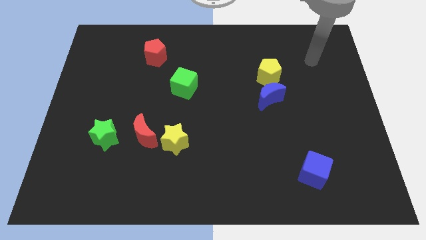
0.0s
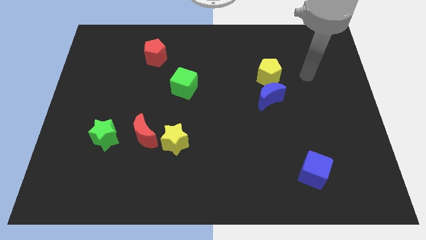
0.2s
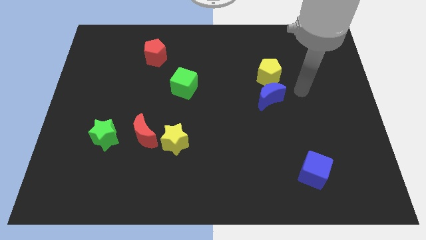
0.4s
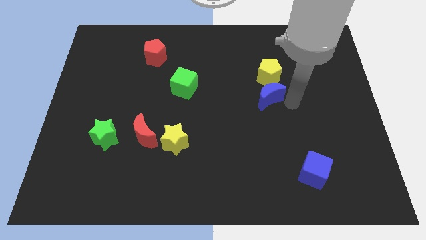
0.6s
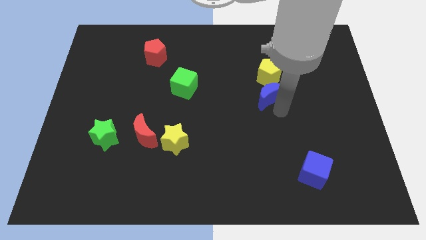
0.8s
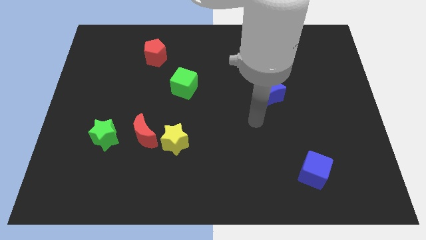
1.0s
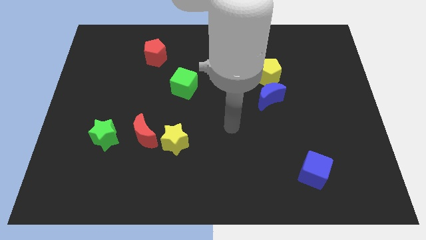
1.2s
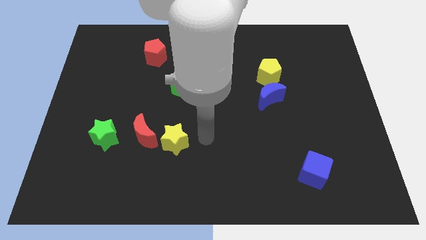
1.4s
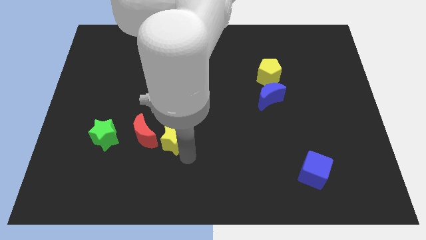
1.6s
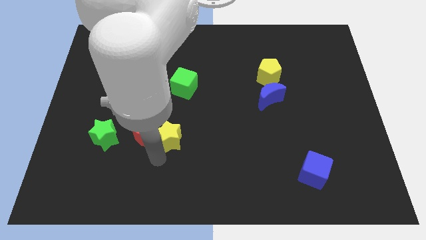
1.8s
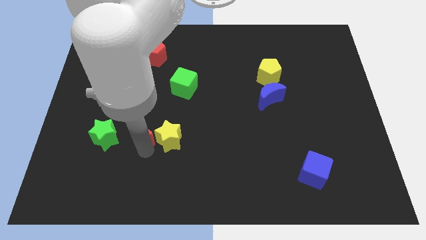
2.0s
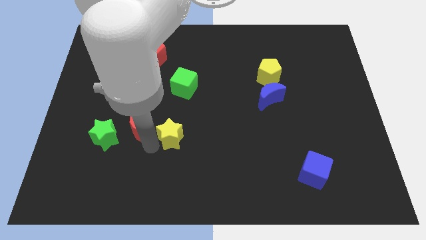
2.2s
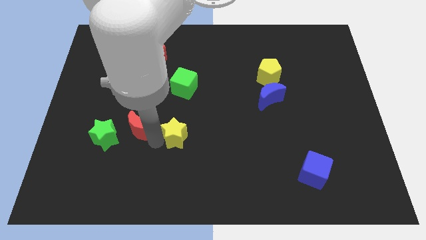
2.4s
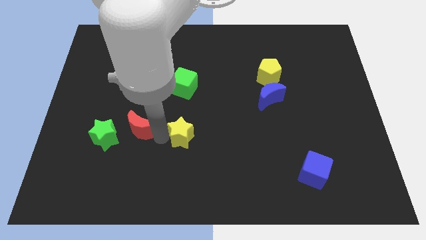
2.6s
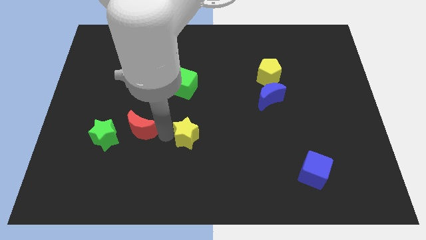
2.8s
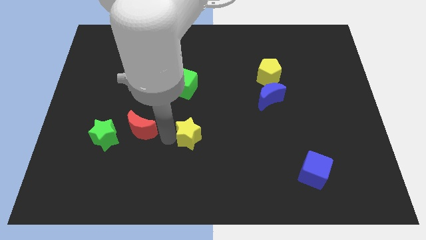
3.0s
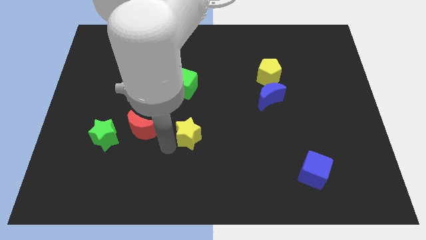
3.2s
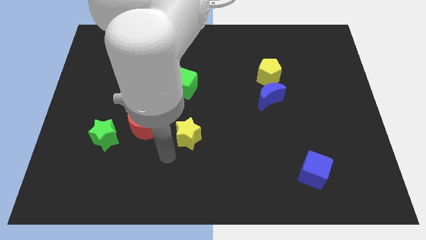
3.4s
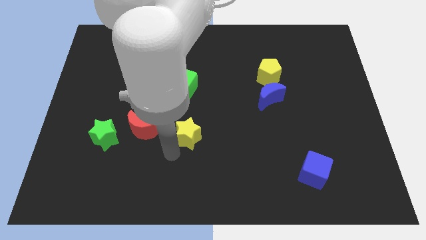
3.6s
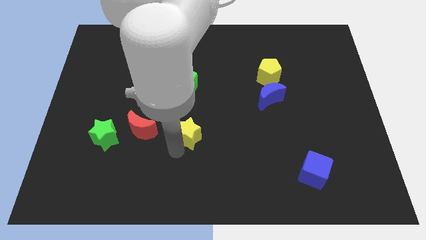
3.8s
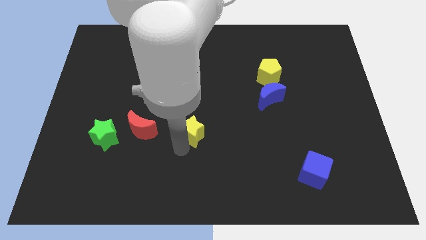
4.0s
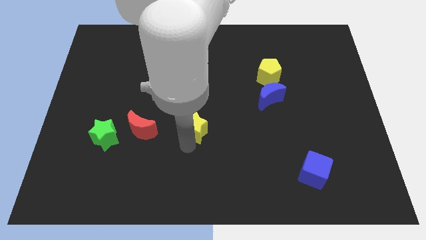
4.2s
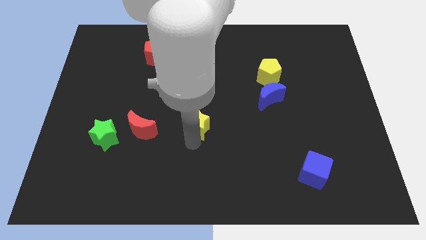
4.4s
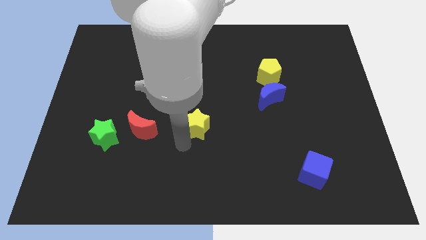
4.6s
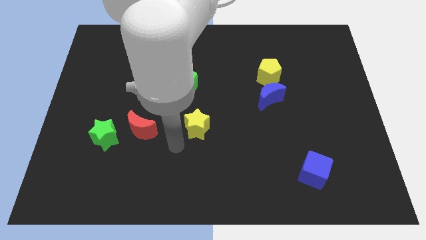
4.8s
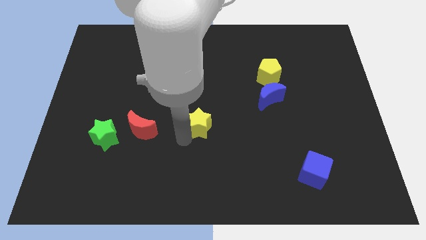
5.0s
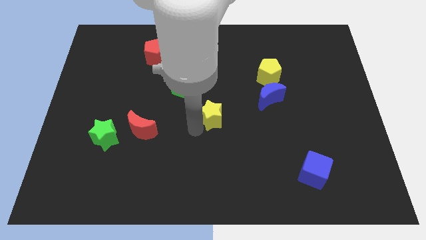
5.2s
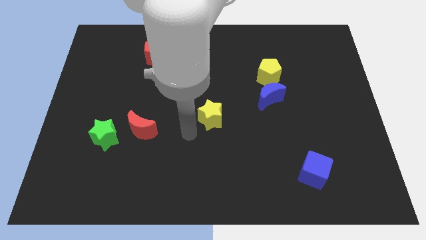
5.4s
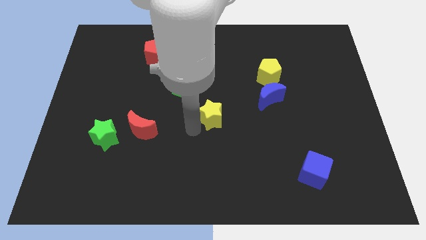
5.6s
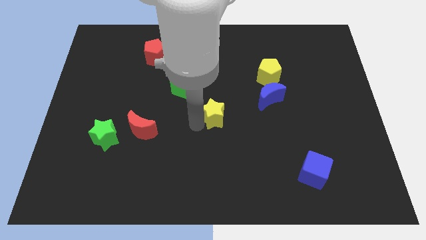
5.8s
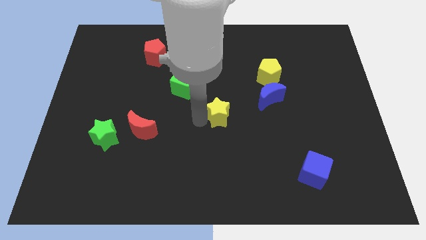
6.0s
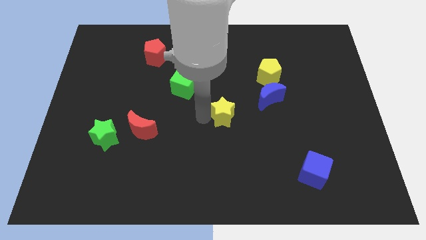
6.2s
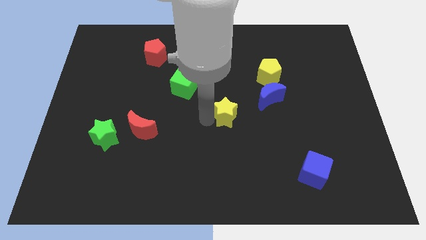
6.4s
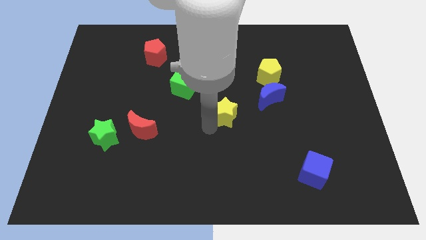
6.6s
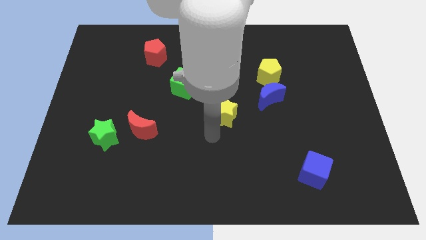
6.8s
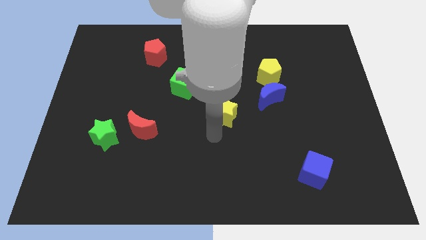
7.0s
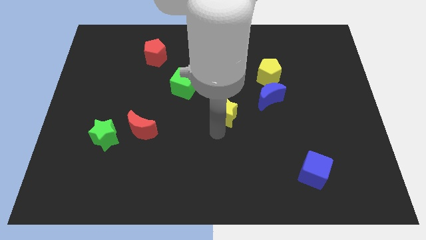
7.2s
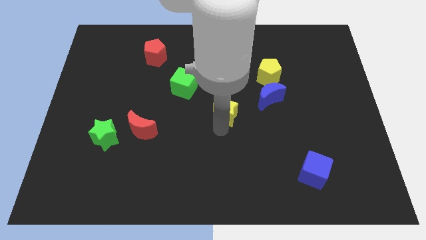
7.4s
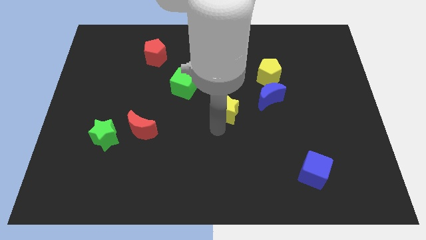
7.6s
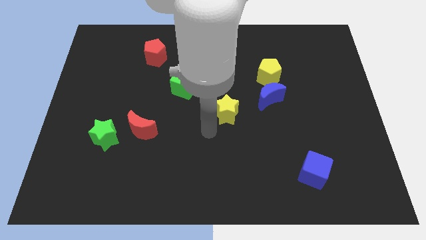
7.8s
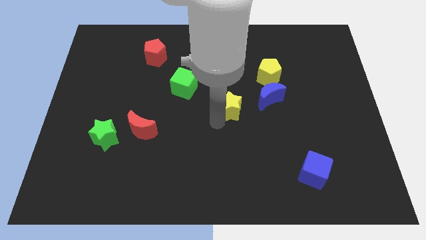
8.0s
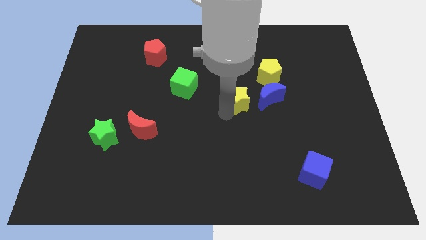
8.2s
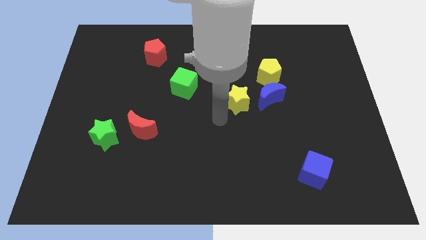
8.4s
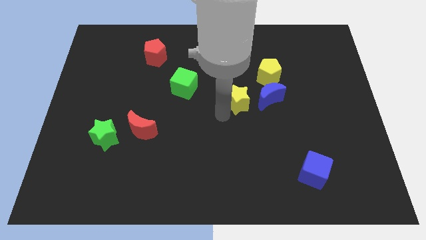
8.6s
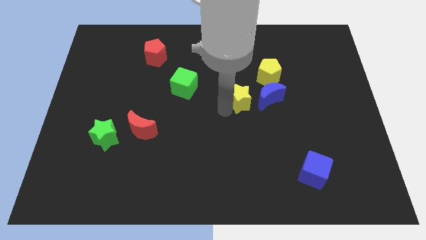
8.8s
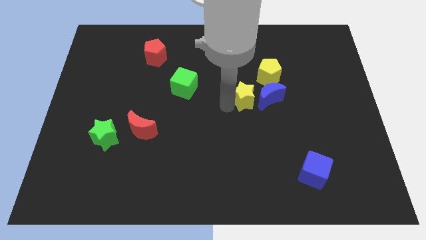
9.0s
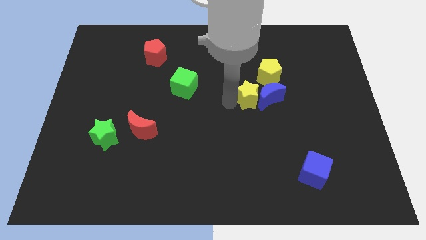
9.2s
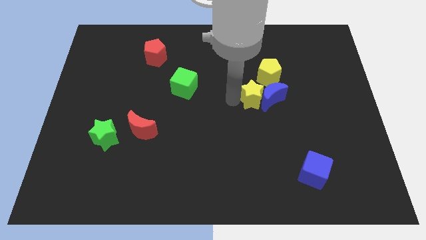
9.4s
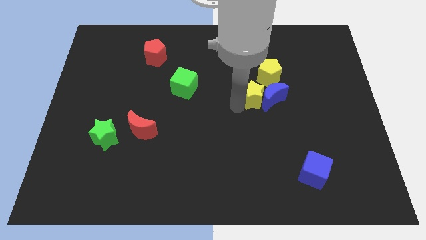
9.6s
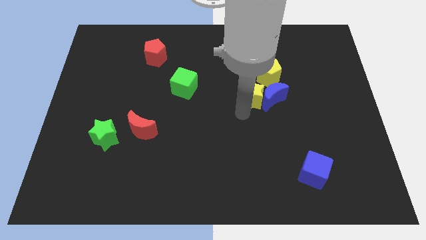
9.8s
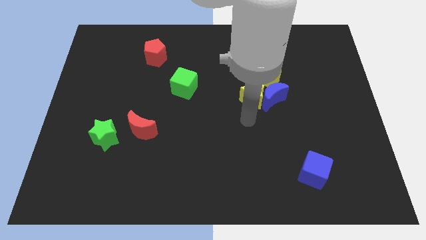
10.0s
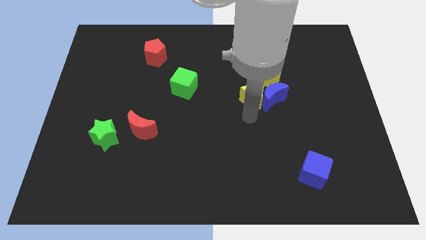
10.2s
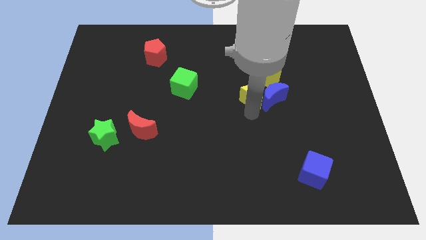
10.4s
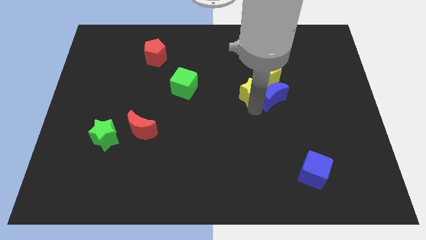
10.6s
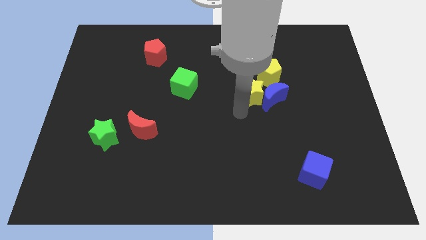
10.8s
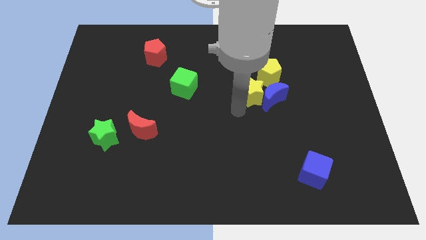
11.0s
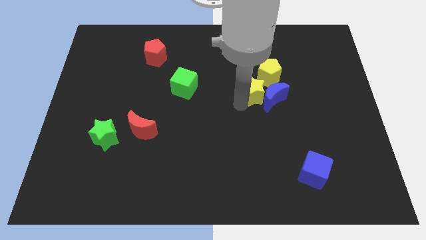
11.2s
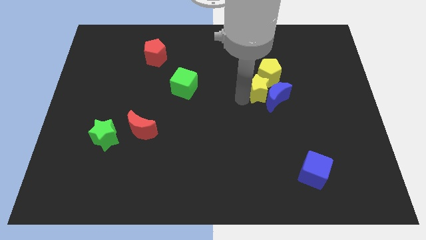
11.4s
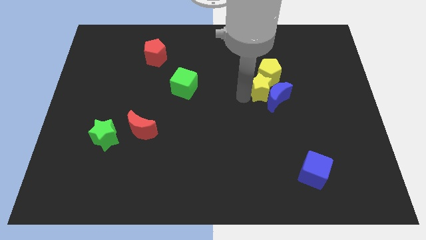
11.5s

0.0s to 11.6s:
put the yellow star close to the yellow pentagon

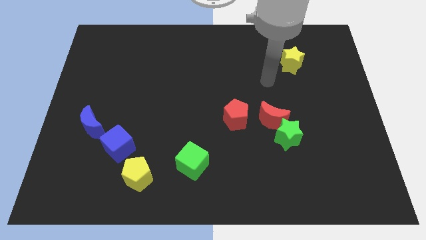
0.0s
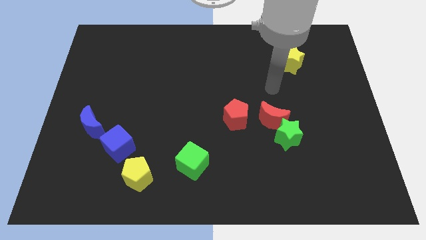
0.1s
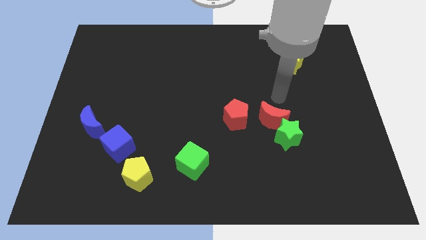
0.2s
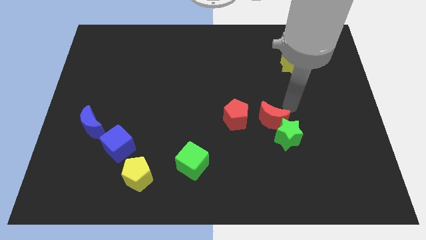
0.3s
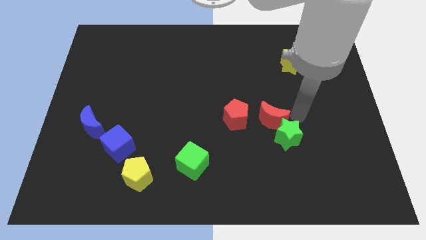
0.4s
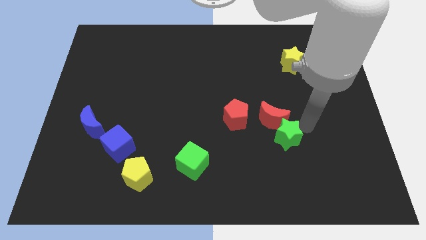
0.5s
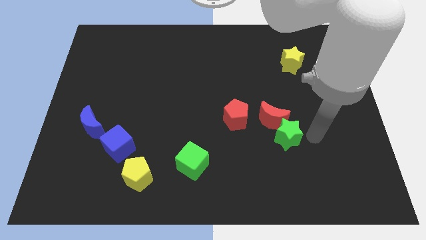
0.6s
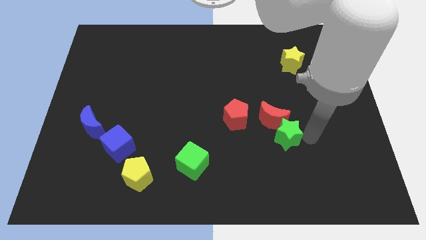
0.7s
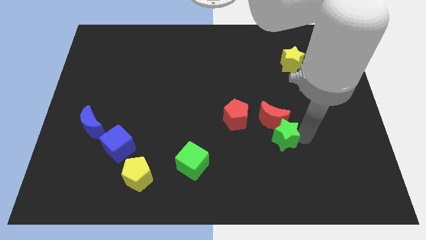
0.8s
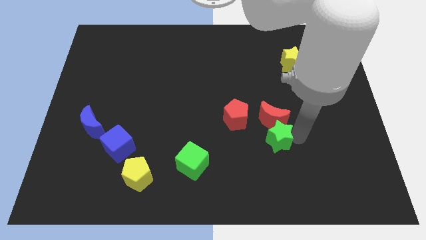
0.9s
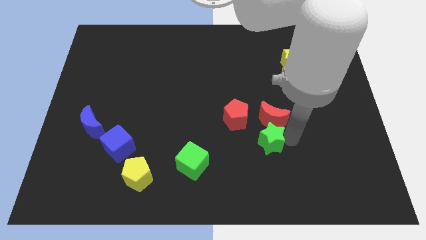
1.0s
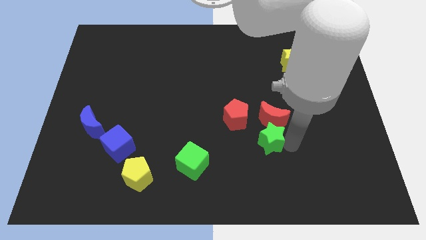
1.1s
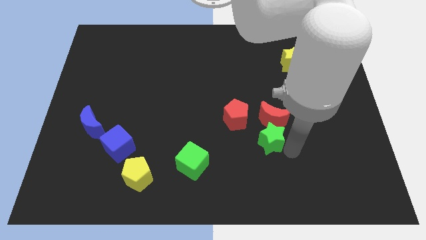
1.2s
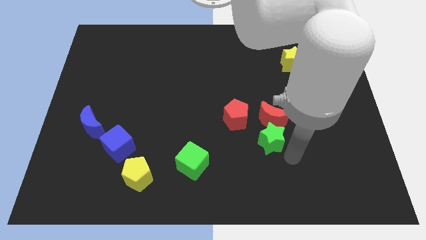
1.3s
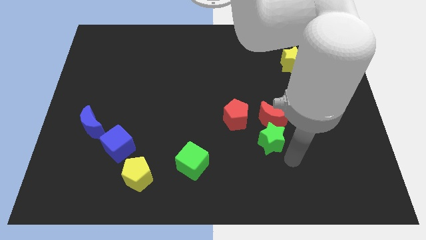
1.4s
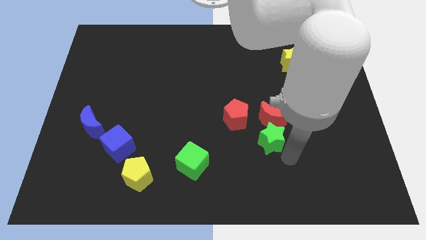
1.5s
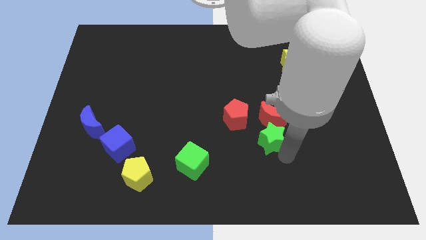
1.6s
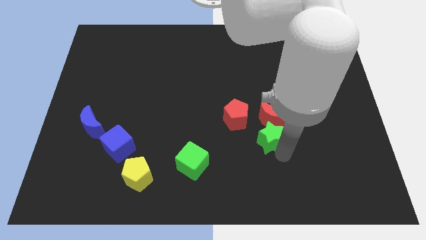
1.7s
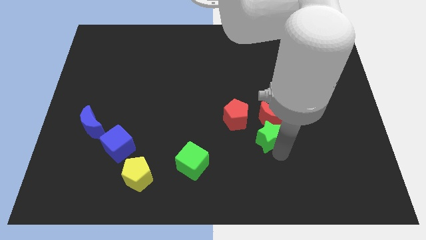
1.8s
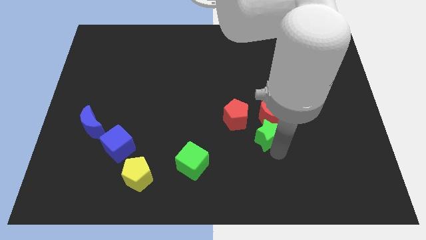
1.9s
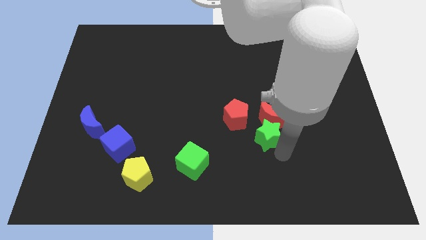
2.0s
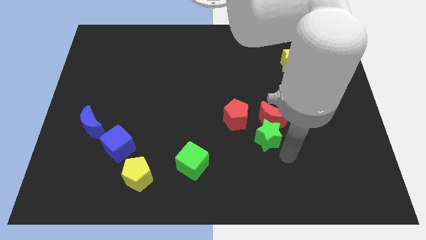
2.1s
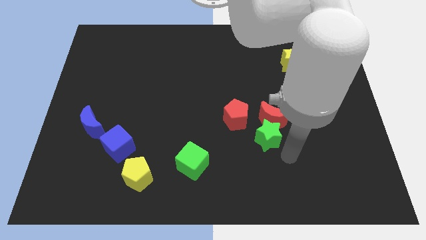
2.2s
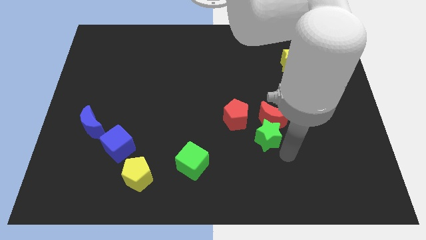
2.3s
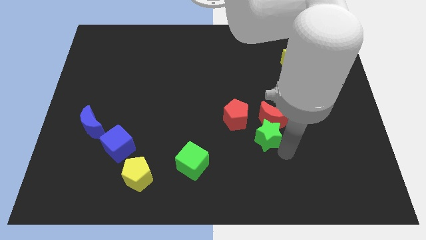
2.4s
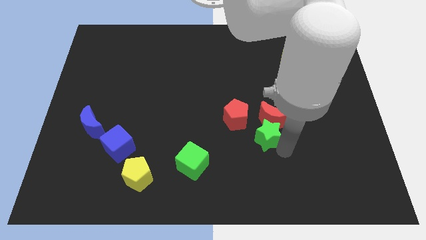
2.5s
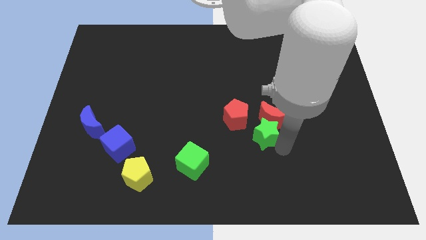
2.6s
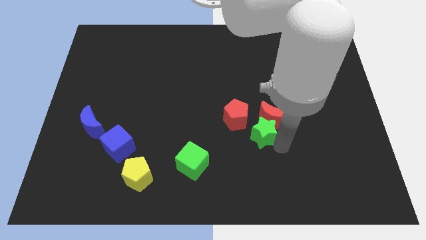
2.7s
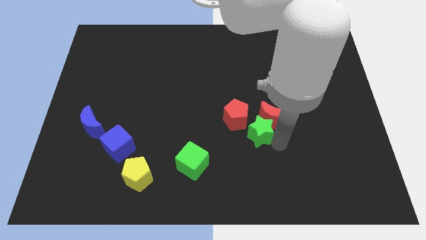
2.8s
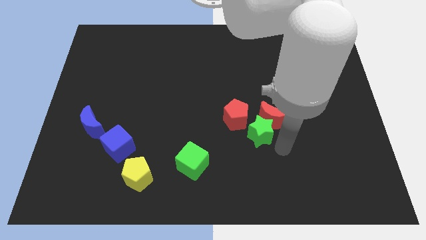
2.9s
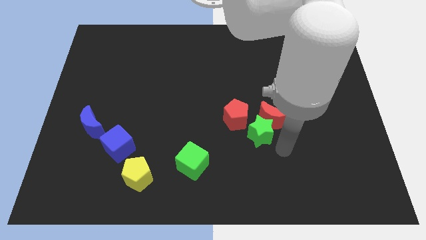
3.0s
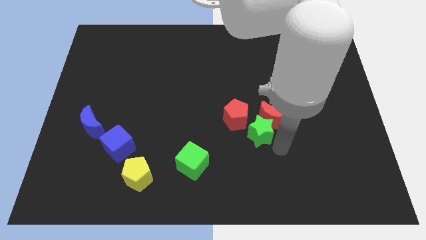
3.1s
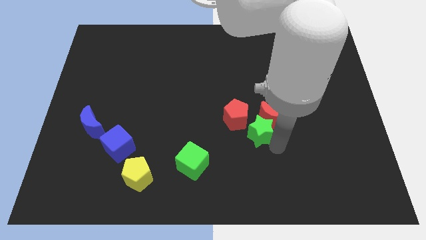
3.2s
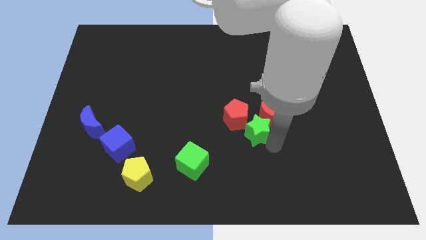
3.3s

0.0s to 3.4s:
put the green star towards the red pentagon
